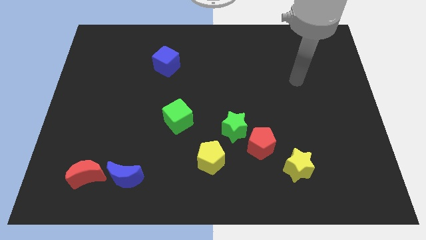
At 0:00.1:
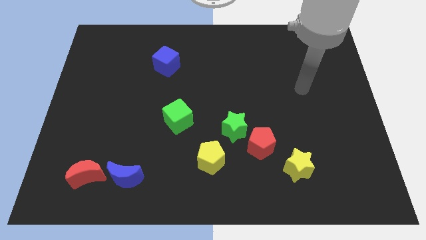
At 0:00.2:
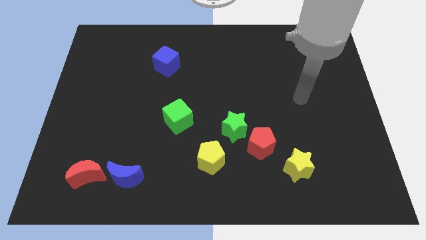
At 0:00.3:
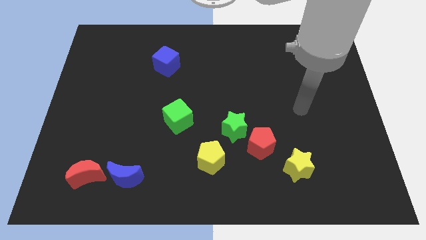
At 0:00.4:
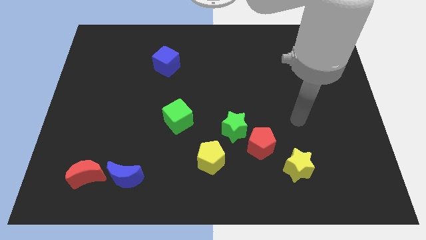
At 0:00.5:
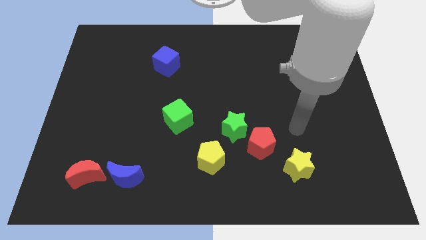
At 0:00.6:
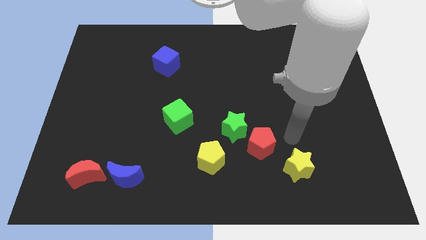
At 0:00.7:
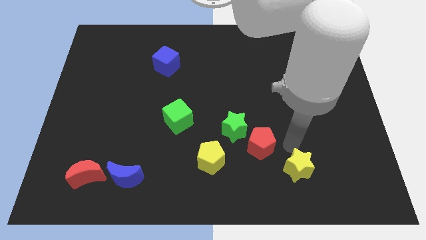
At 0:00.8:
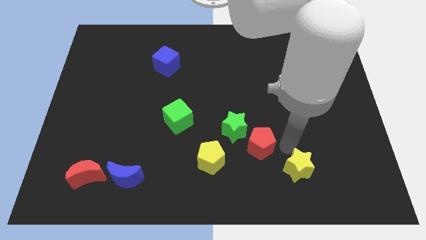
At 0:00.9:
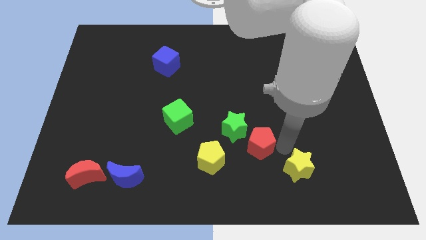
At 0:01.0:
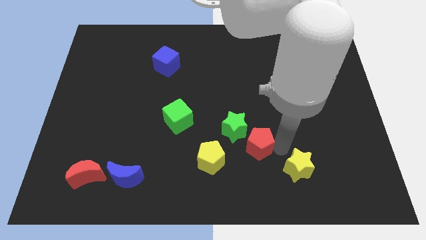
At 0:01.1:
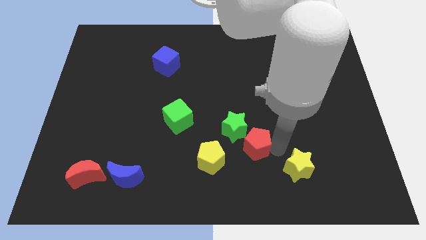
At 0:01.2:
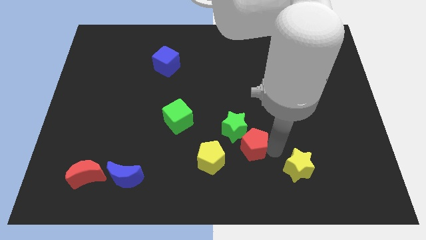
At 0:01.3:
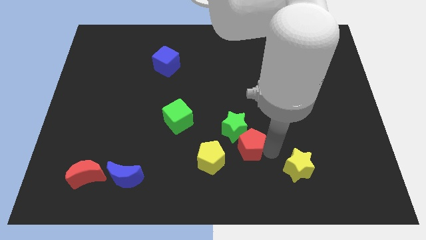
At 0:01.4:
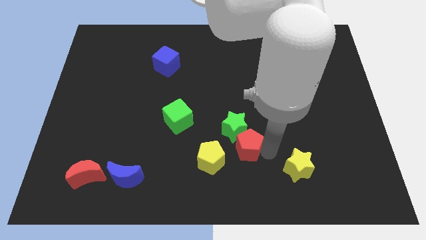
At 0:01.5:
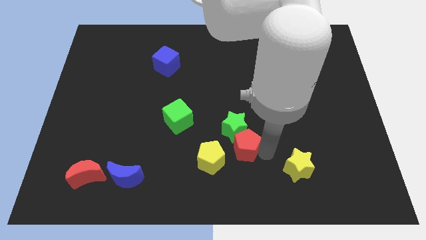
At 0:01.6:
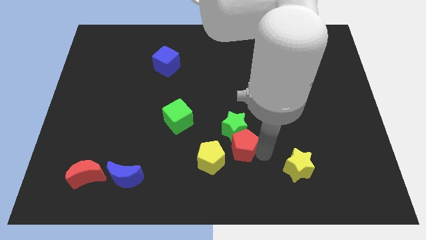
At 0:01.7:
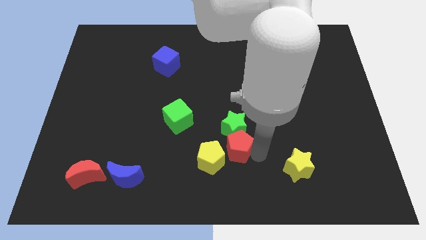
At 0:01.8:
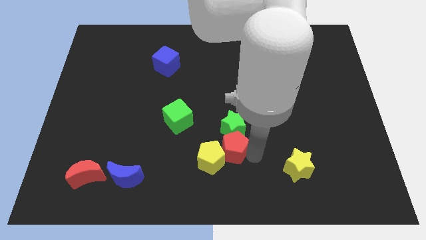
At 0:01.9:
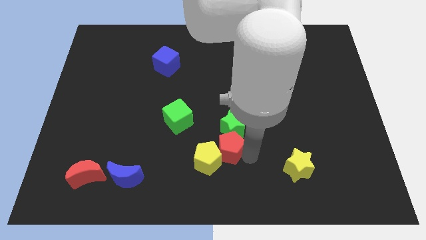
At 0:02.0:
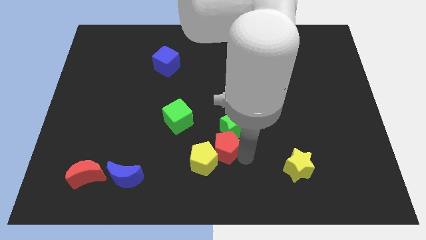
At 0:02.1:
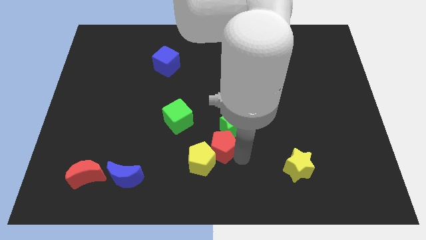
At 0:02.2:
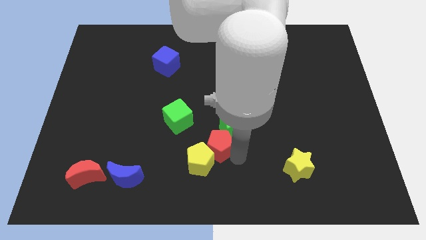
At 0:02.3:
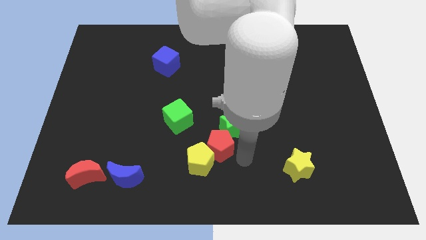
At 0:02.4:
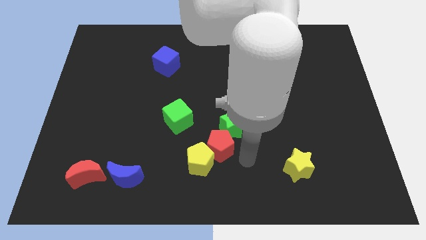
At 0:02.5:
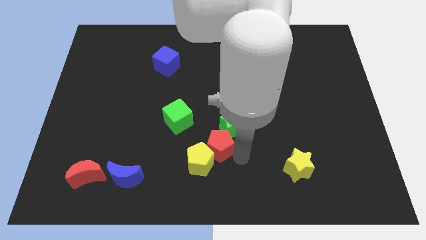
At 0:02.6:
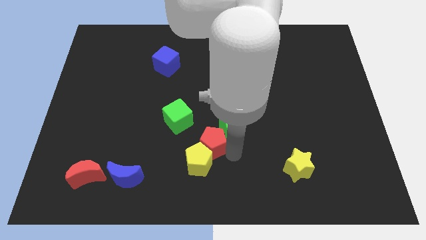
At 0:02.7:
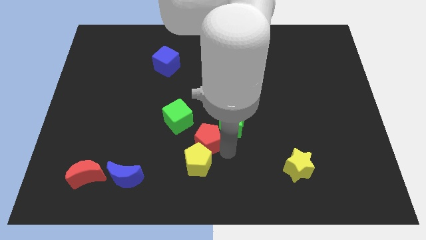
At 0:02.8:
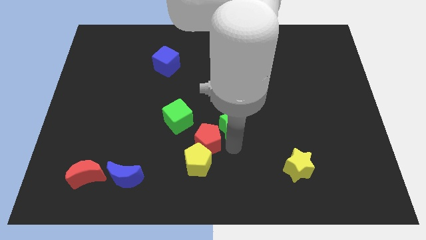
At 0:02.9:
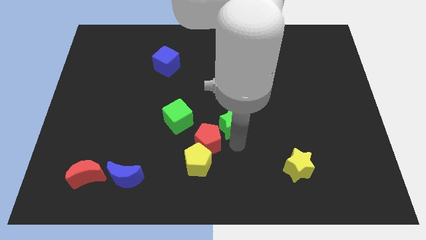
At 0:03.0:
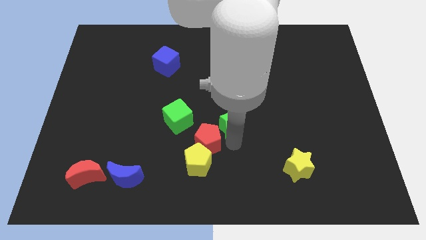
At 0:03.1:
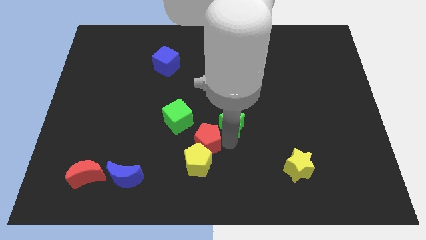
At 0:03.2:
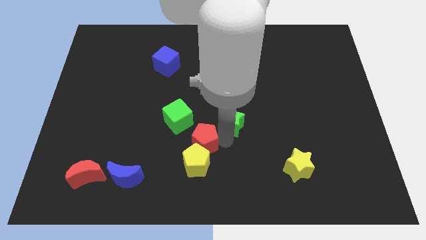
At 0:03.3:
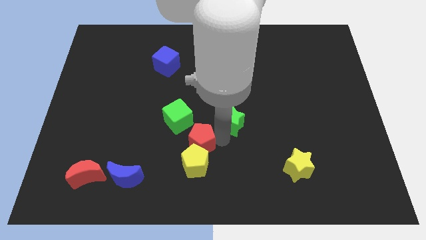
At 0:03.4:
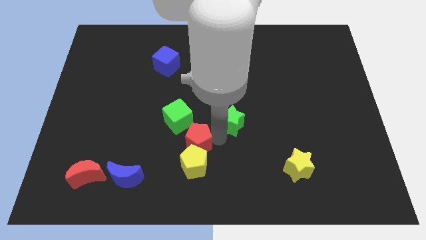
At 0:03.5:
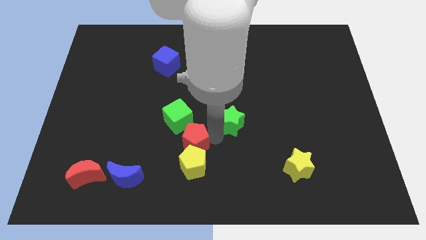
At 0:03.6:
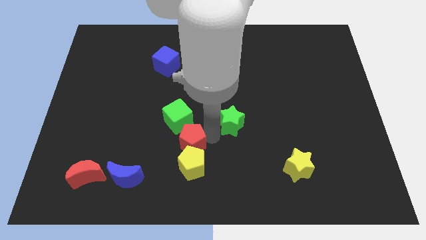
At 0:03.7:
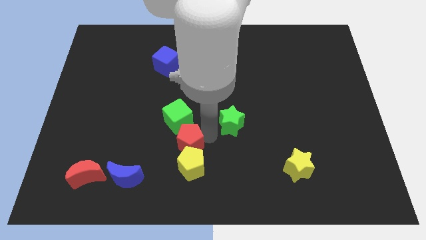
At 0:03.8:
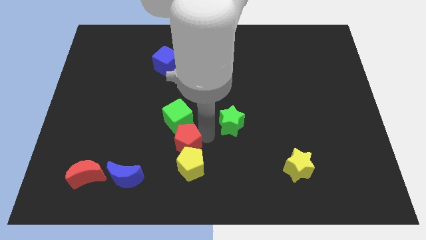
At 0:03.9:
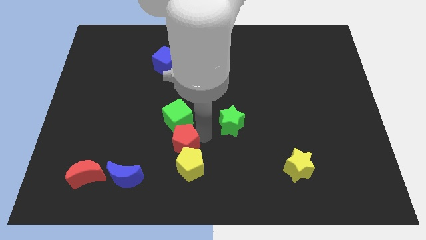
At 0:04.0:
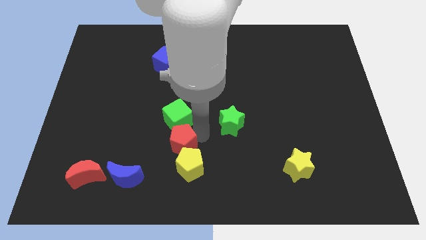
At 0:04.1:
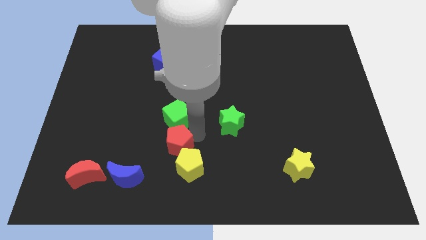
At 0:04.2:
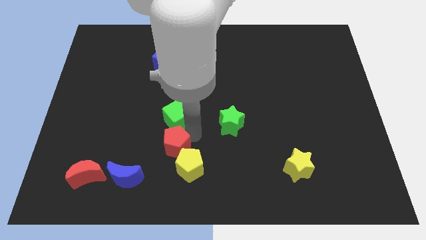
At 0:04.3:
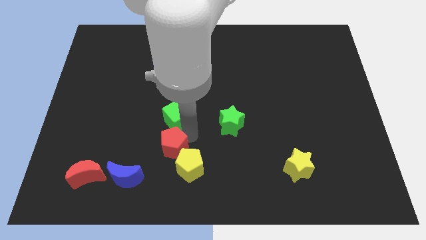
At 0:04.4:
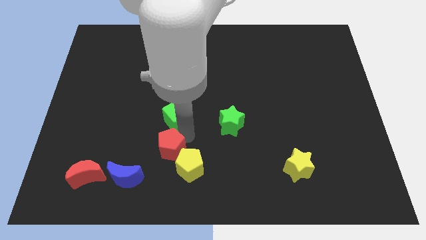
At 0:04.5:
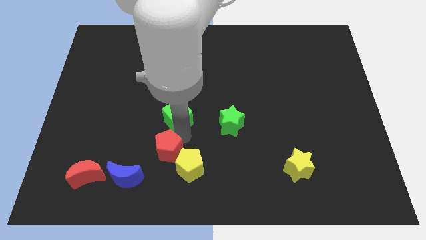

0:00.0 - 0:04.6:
push the red pentagon left

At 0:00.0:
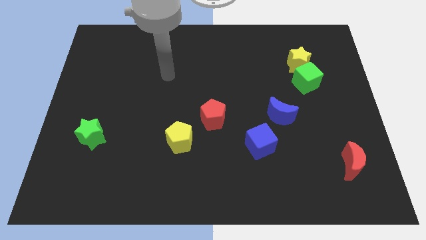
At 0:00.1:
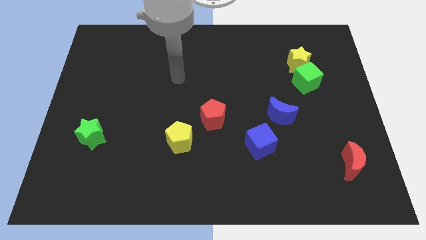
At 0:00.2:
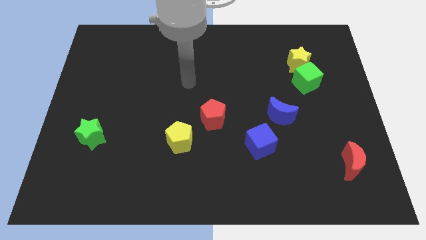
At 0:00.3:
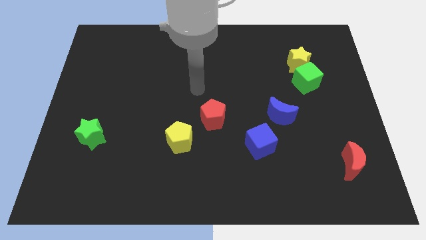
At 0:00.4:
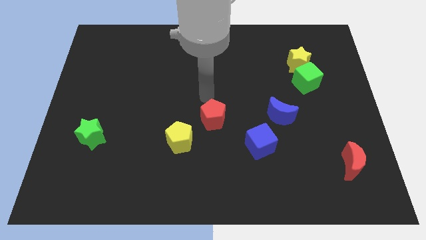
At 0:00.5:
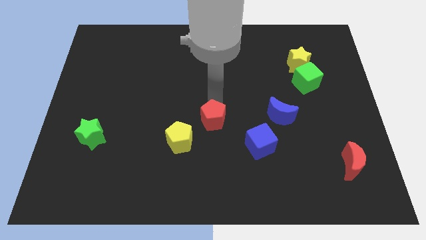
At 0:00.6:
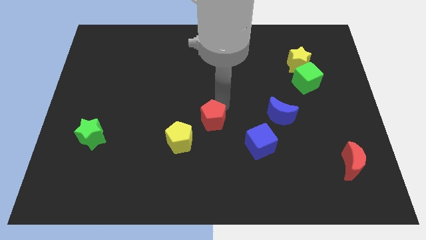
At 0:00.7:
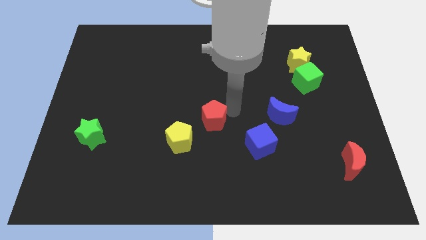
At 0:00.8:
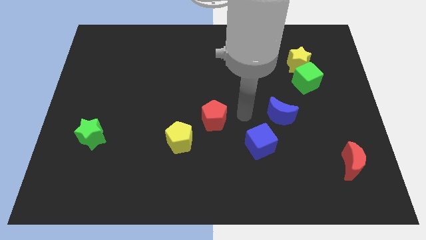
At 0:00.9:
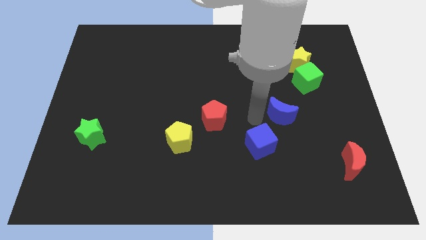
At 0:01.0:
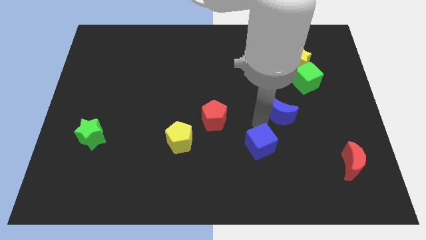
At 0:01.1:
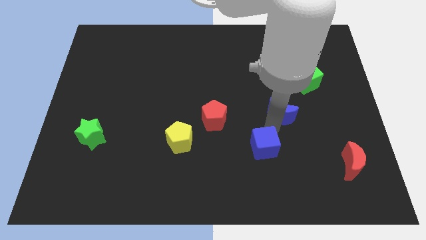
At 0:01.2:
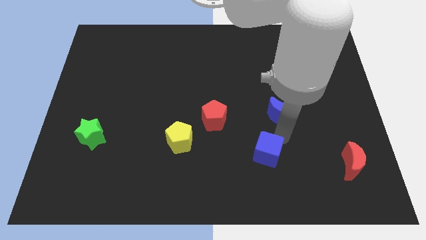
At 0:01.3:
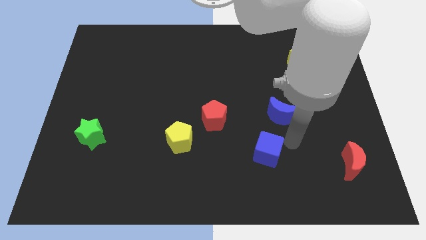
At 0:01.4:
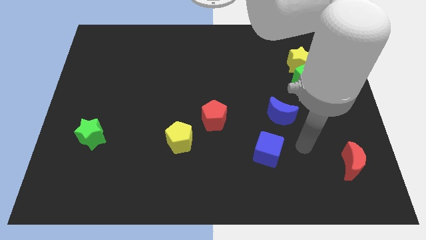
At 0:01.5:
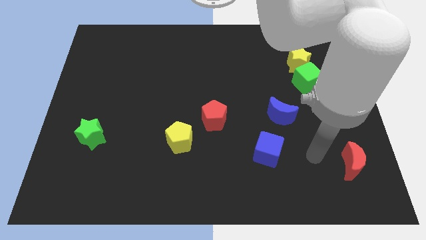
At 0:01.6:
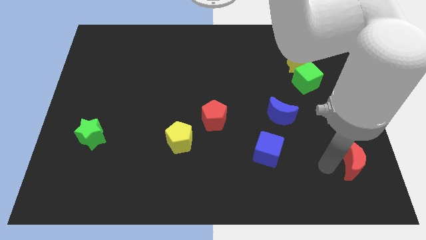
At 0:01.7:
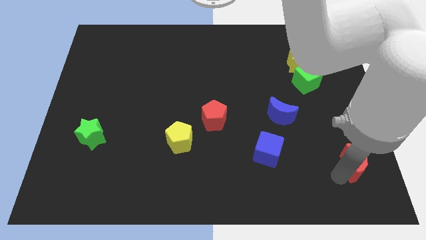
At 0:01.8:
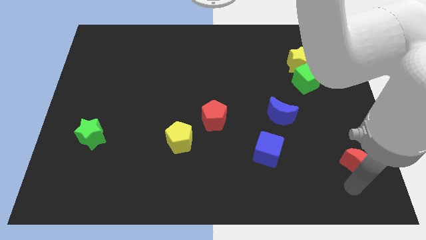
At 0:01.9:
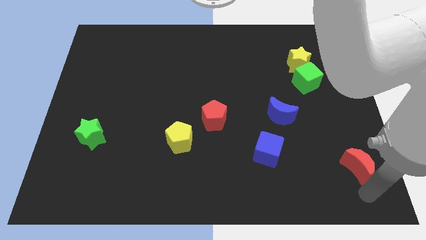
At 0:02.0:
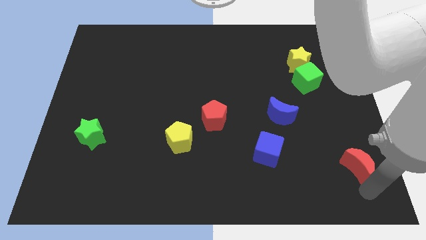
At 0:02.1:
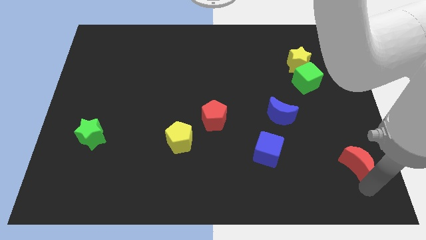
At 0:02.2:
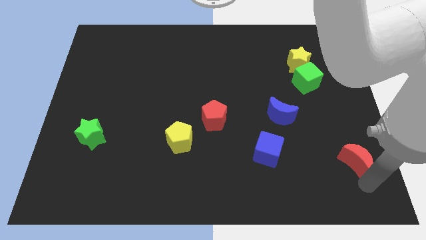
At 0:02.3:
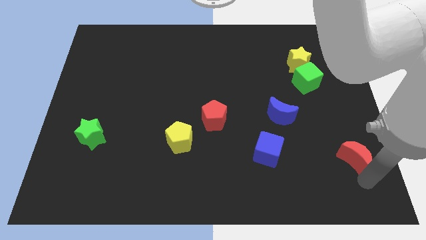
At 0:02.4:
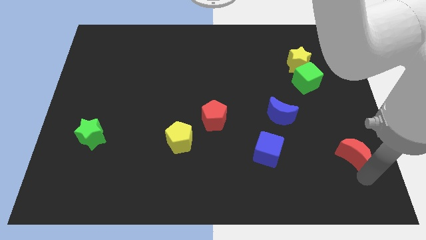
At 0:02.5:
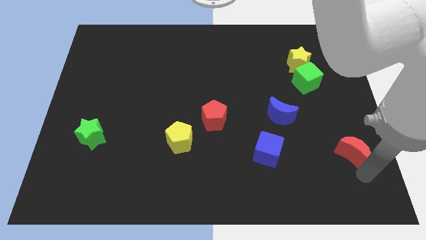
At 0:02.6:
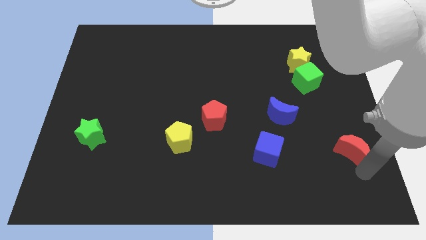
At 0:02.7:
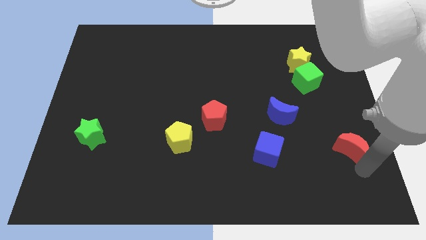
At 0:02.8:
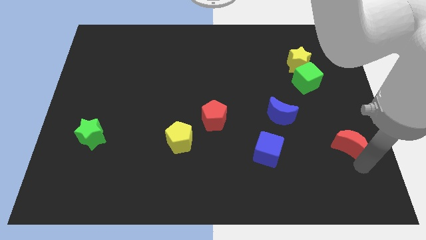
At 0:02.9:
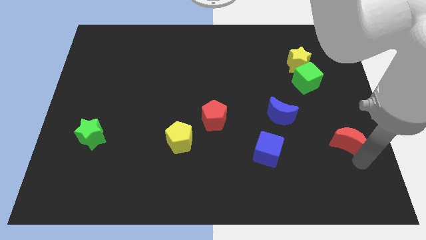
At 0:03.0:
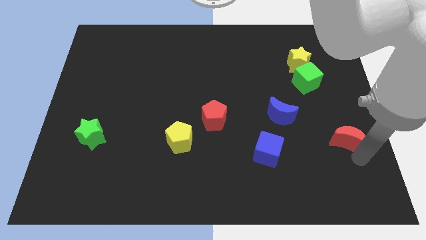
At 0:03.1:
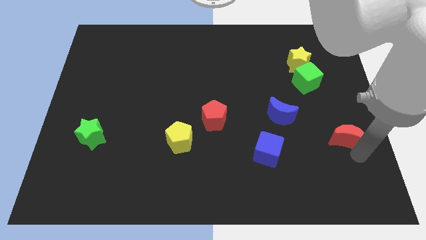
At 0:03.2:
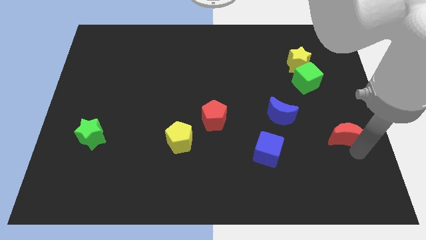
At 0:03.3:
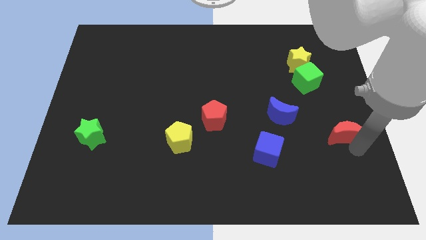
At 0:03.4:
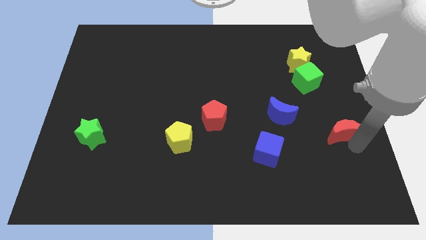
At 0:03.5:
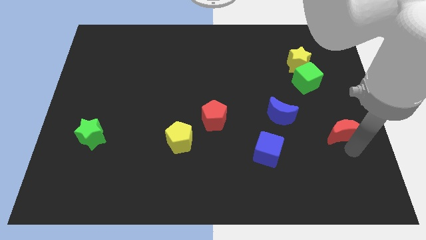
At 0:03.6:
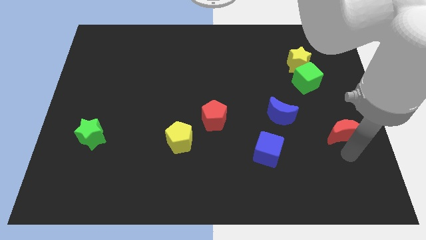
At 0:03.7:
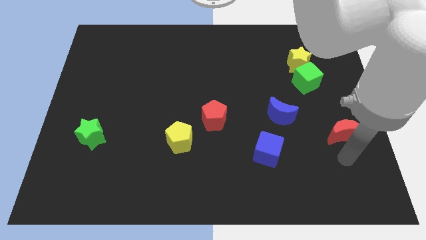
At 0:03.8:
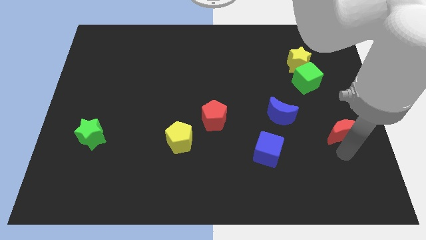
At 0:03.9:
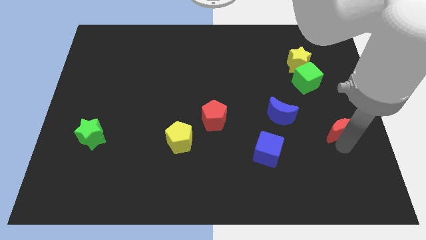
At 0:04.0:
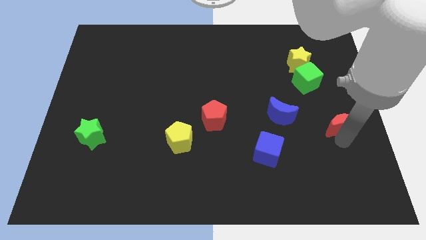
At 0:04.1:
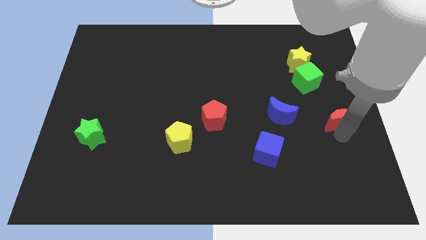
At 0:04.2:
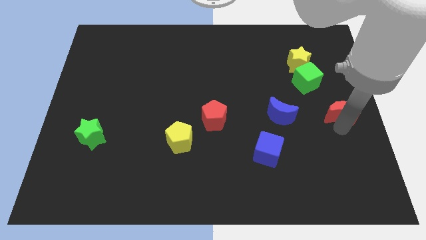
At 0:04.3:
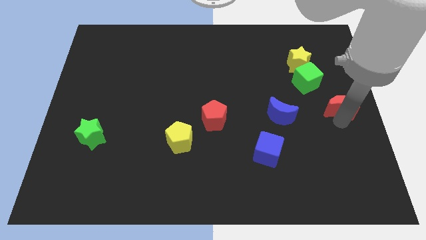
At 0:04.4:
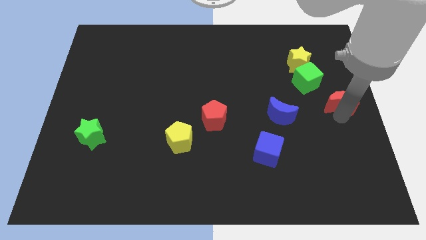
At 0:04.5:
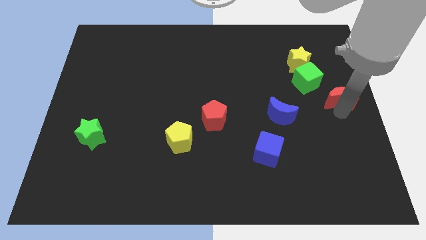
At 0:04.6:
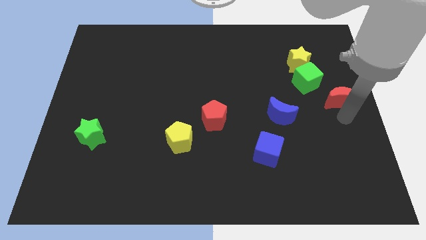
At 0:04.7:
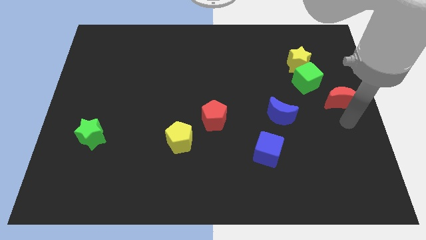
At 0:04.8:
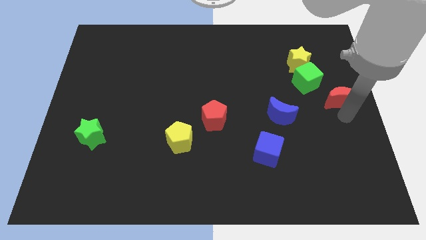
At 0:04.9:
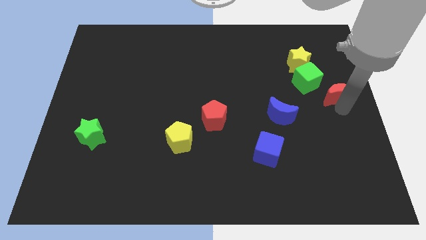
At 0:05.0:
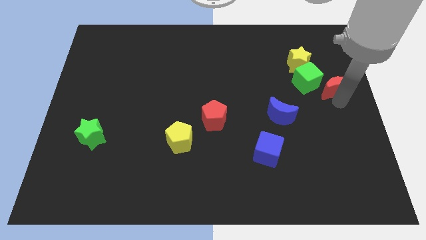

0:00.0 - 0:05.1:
move the red moon upwards
